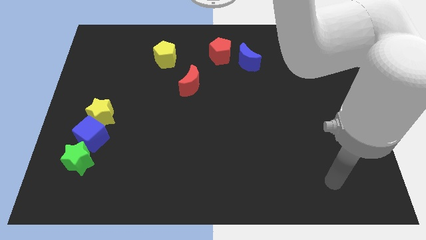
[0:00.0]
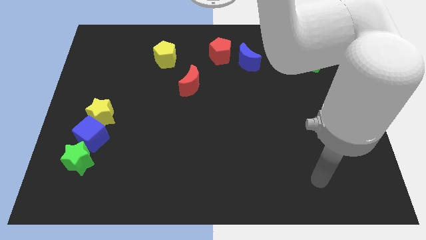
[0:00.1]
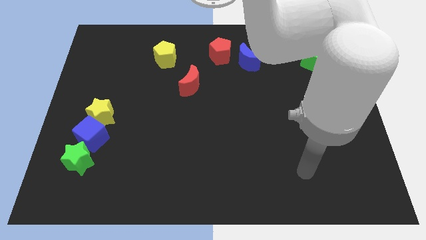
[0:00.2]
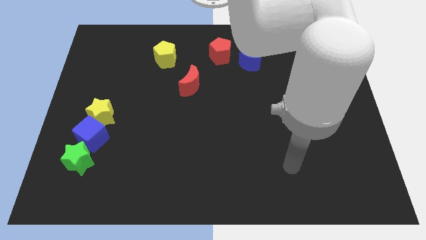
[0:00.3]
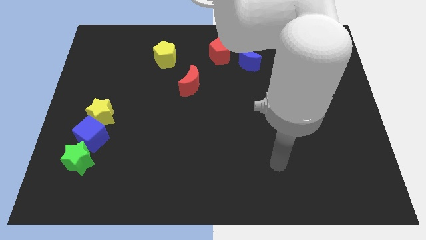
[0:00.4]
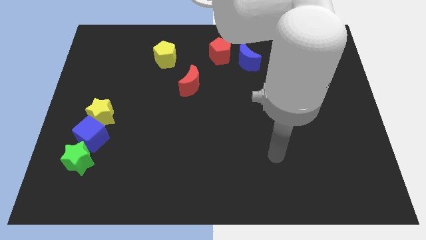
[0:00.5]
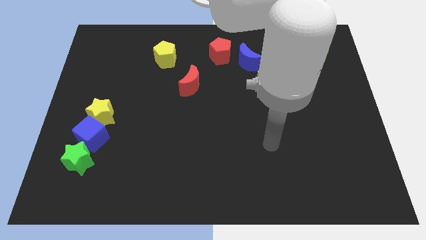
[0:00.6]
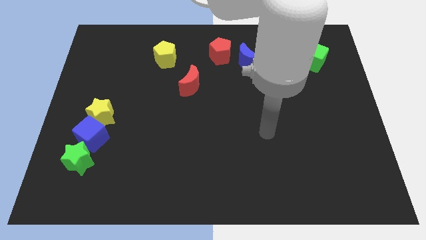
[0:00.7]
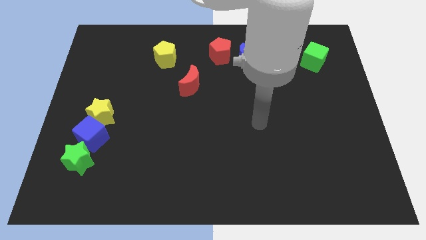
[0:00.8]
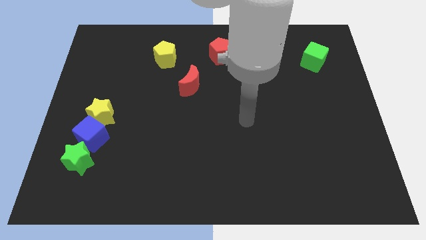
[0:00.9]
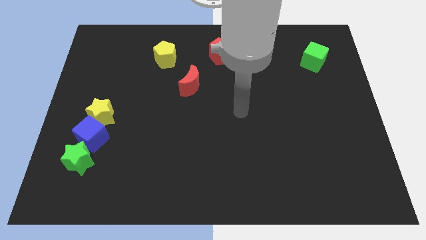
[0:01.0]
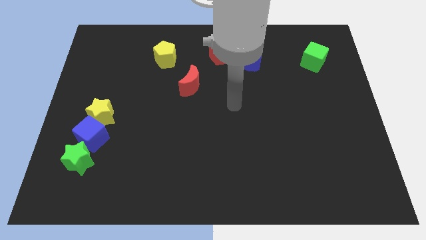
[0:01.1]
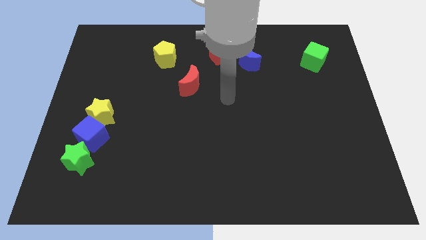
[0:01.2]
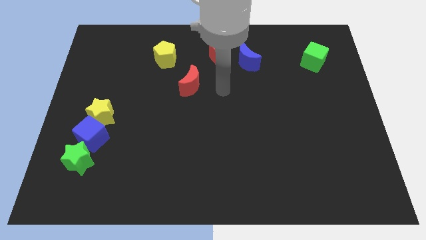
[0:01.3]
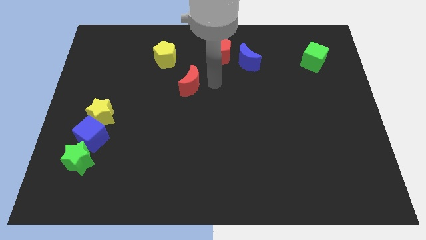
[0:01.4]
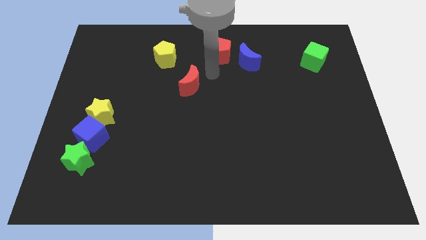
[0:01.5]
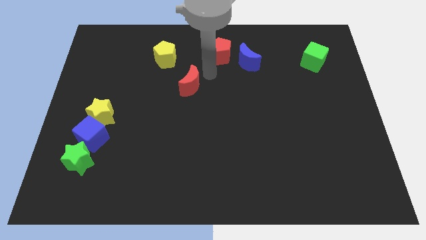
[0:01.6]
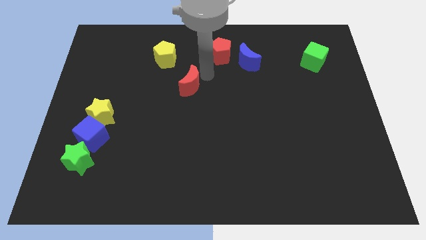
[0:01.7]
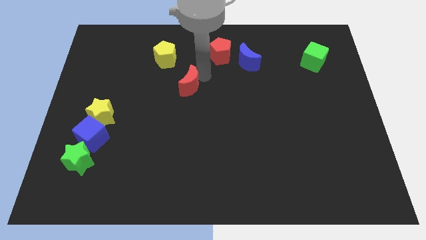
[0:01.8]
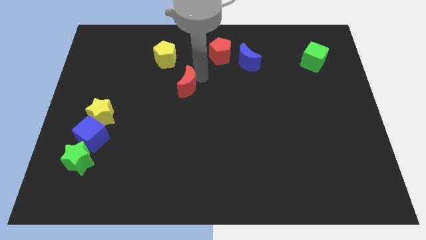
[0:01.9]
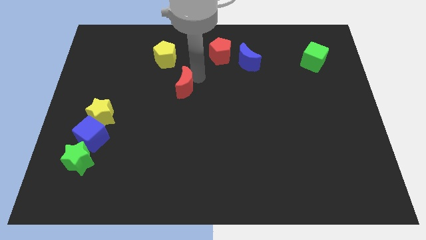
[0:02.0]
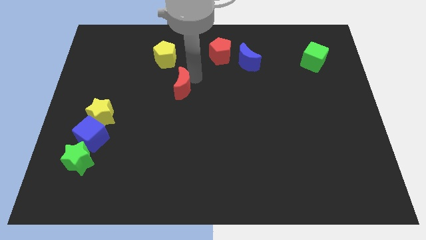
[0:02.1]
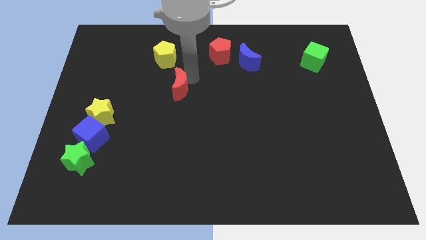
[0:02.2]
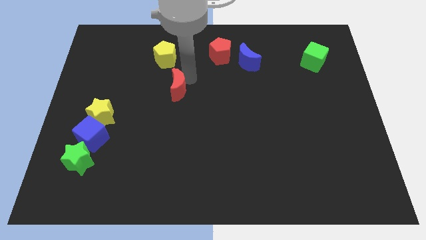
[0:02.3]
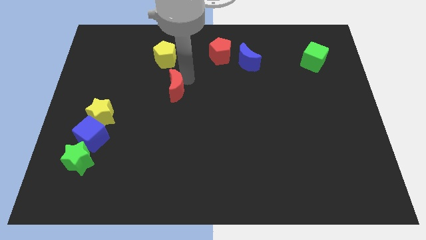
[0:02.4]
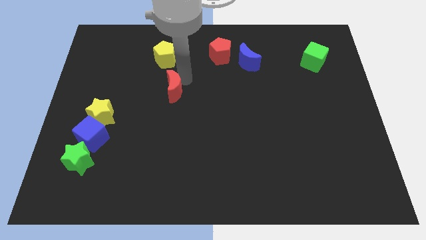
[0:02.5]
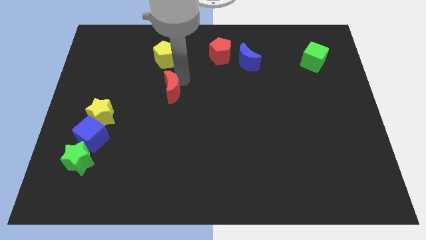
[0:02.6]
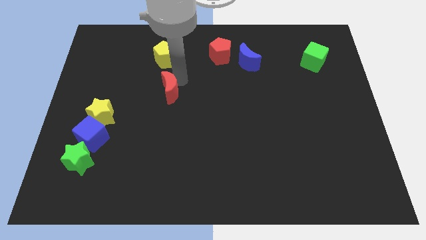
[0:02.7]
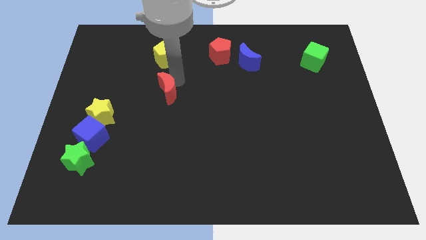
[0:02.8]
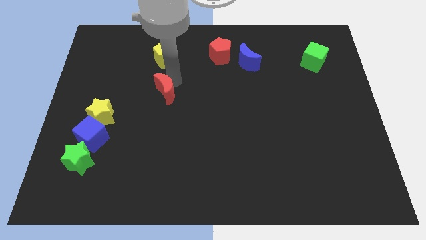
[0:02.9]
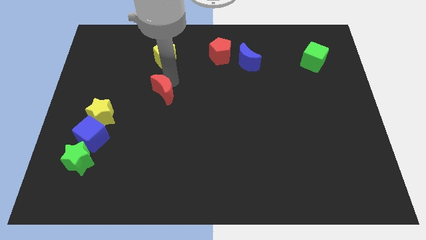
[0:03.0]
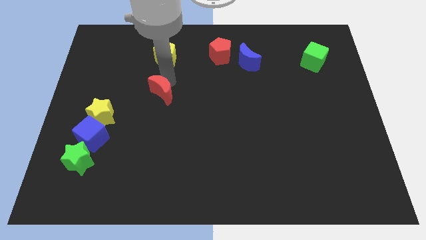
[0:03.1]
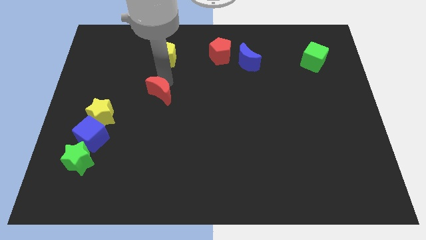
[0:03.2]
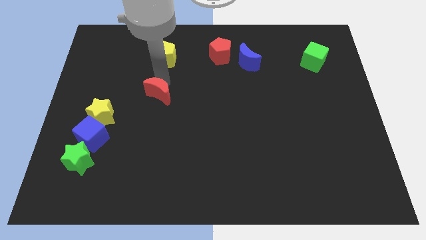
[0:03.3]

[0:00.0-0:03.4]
move the red moon slightly downwards and then to the left

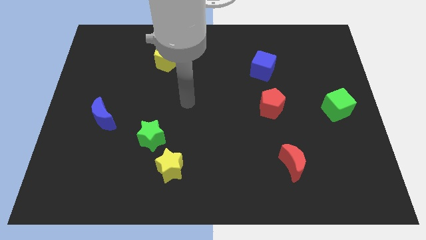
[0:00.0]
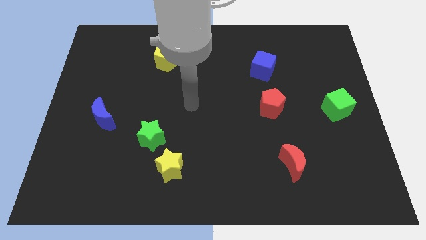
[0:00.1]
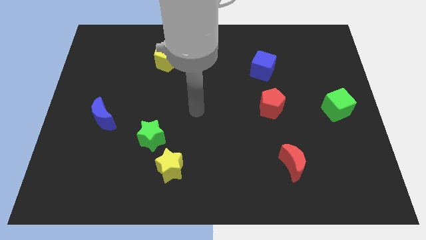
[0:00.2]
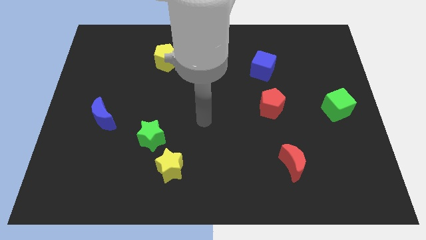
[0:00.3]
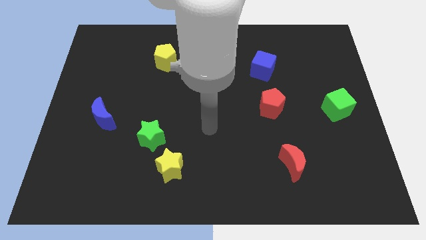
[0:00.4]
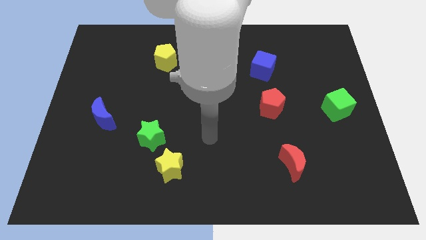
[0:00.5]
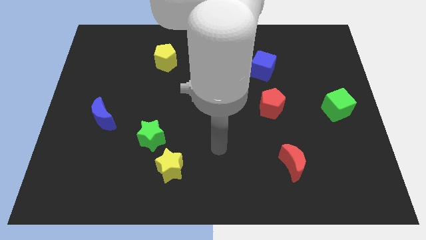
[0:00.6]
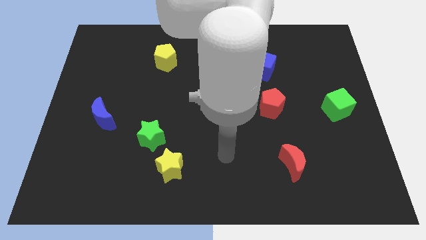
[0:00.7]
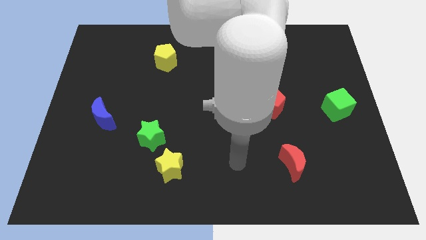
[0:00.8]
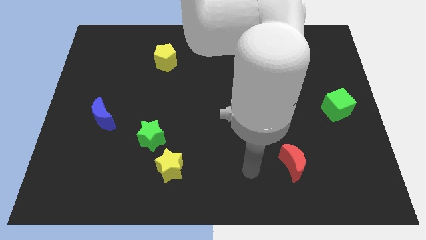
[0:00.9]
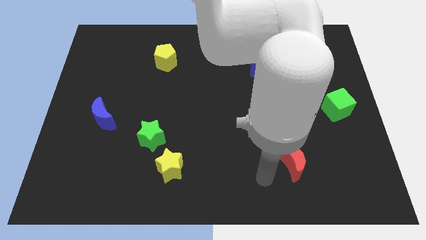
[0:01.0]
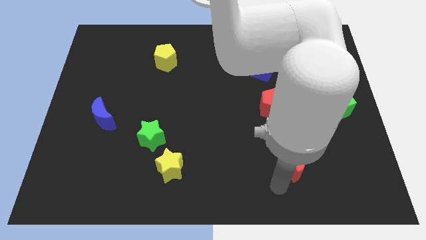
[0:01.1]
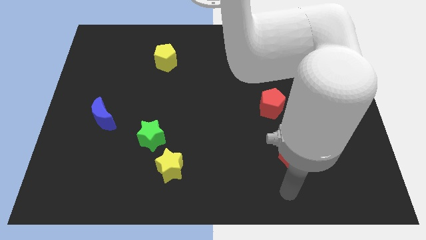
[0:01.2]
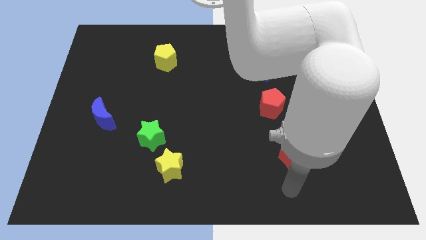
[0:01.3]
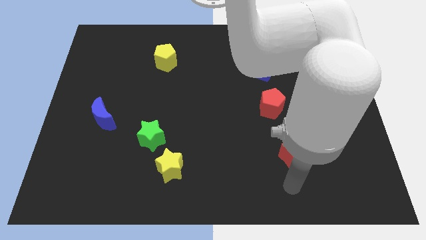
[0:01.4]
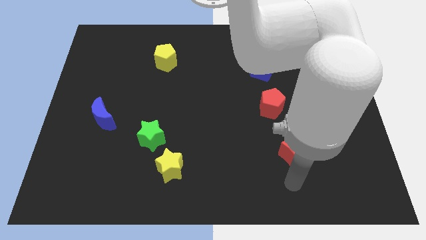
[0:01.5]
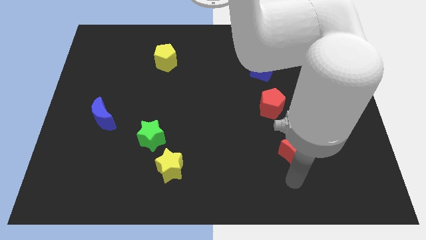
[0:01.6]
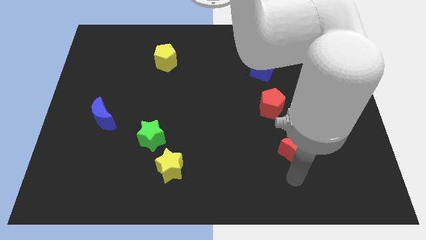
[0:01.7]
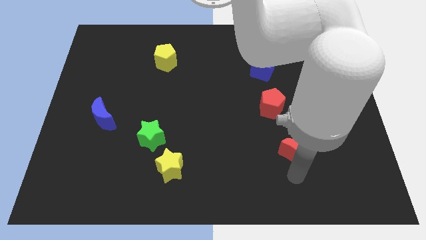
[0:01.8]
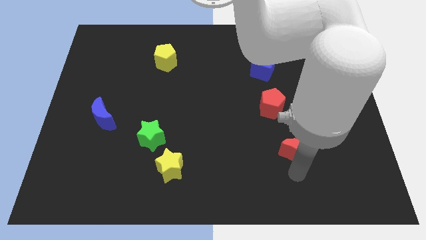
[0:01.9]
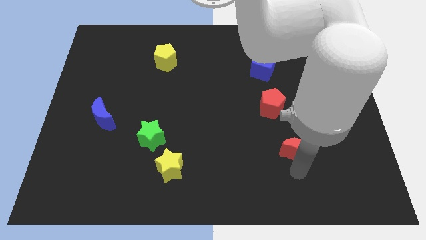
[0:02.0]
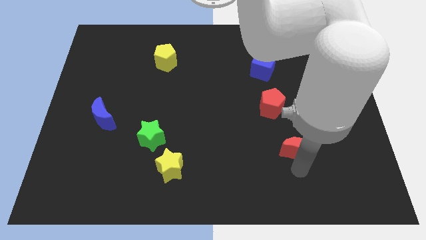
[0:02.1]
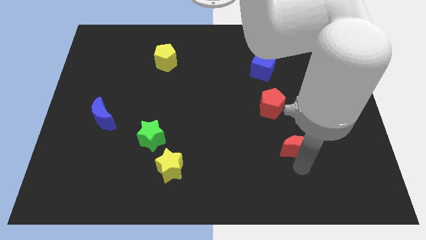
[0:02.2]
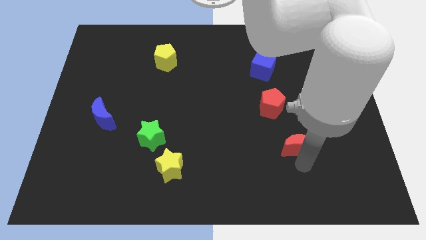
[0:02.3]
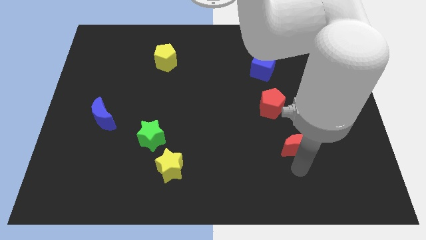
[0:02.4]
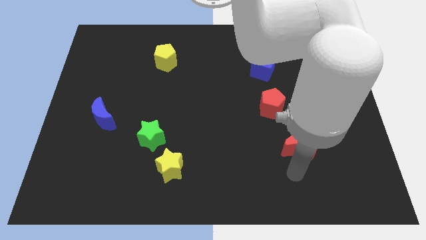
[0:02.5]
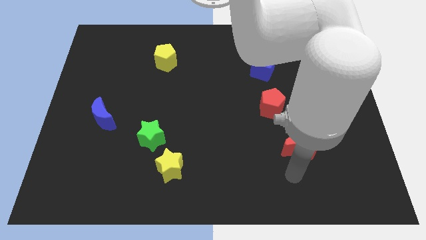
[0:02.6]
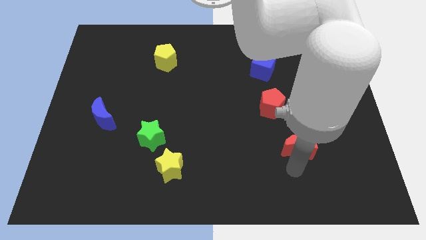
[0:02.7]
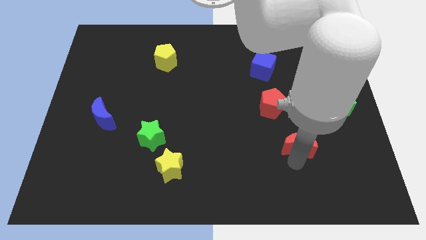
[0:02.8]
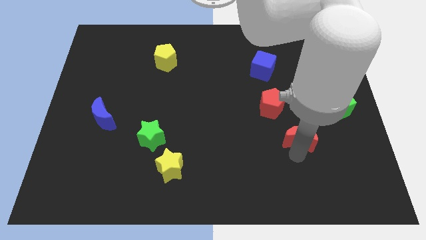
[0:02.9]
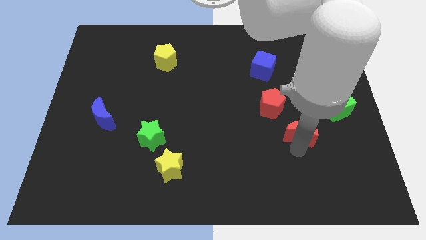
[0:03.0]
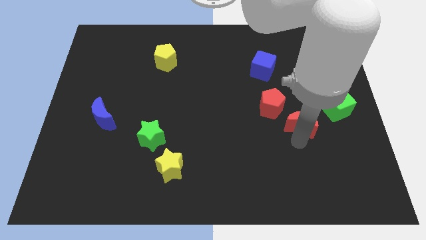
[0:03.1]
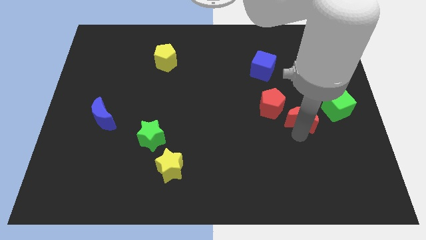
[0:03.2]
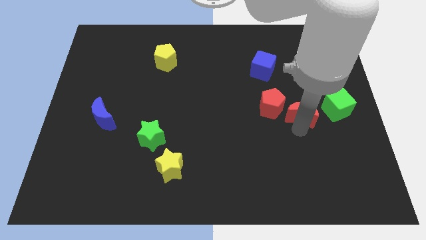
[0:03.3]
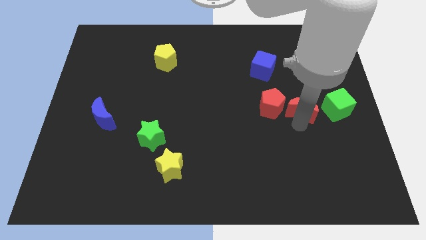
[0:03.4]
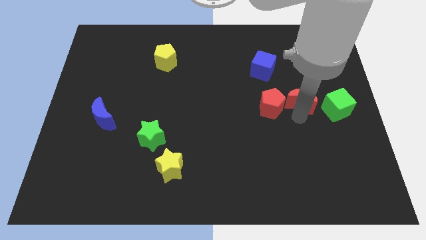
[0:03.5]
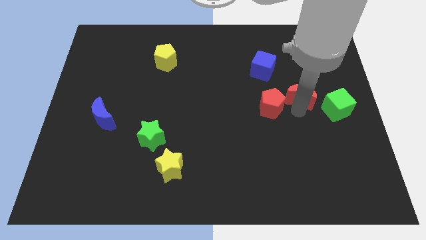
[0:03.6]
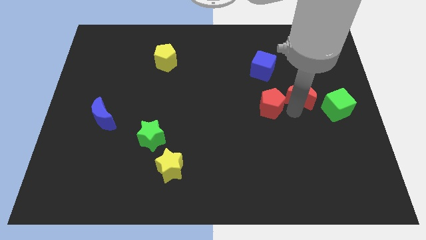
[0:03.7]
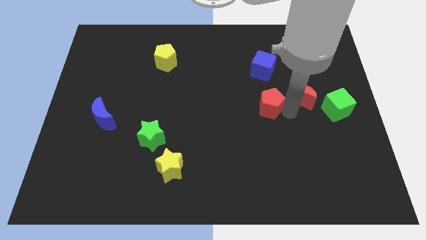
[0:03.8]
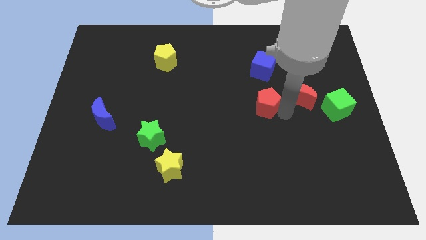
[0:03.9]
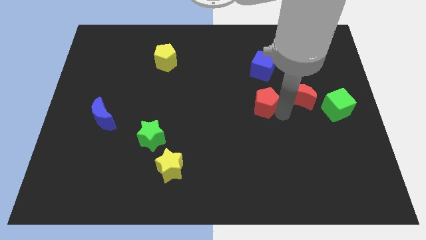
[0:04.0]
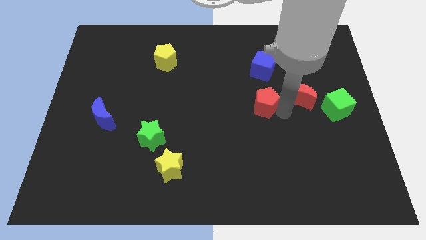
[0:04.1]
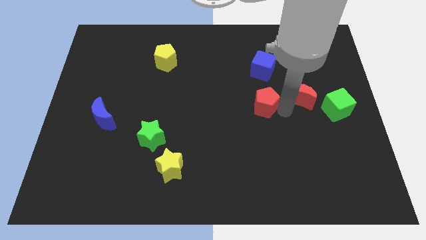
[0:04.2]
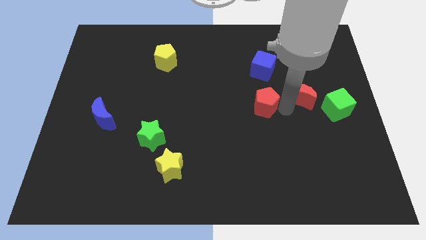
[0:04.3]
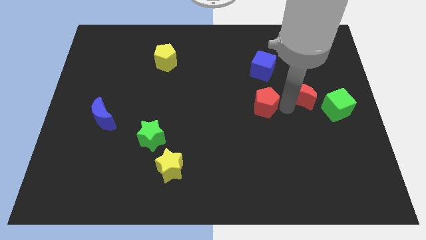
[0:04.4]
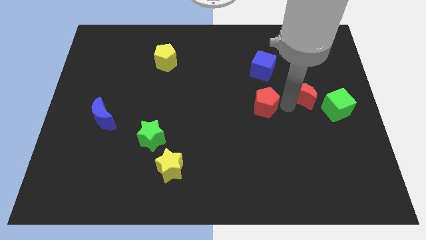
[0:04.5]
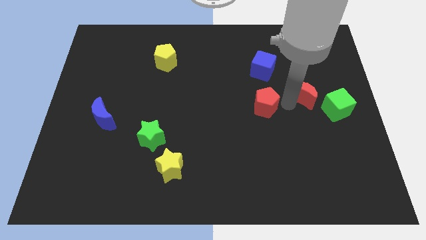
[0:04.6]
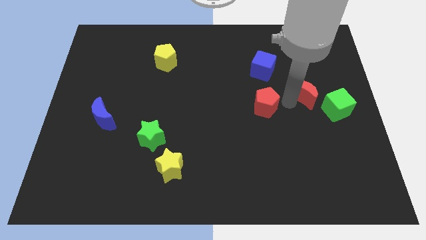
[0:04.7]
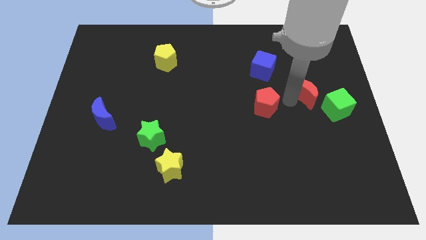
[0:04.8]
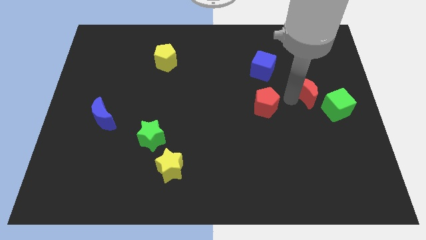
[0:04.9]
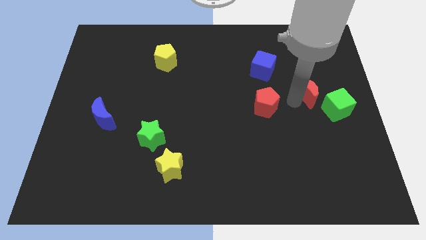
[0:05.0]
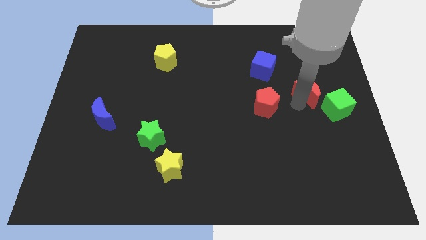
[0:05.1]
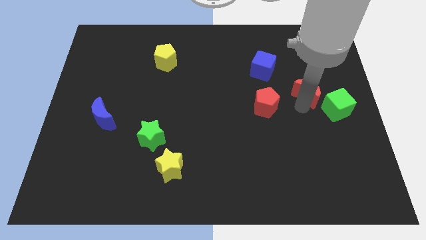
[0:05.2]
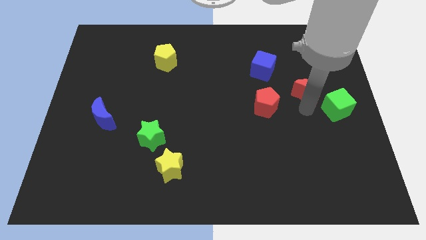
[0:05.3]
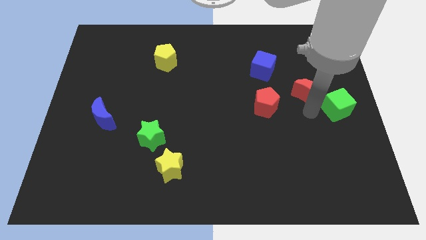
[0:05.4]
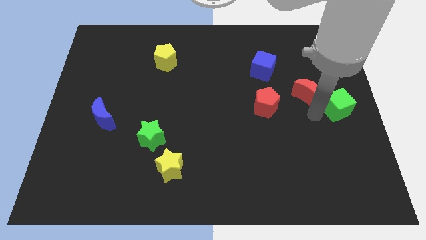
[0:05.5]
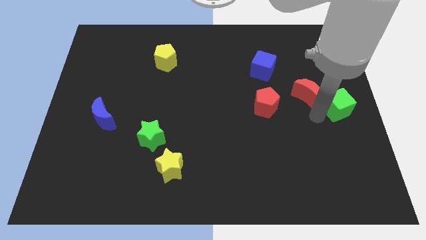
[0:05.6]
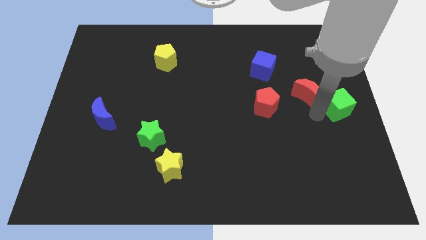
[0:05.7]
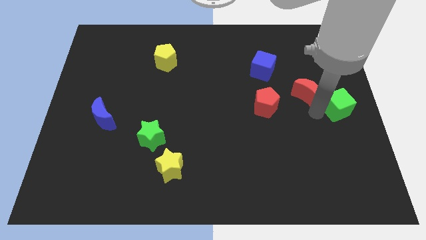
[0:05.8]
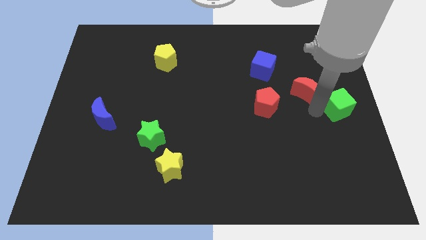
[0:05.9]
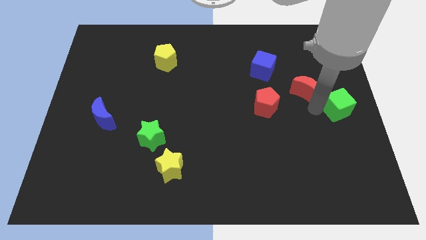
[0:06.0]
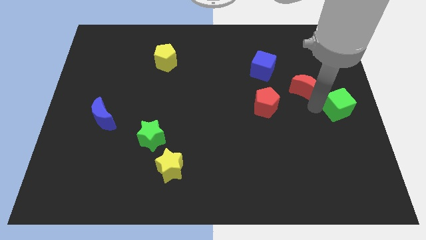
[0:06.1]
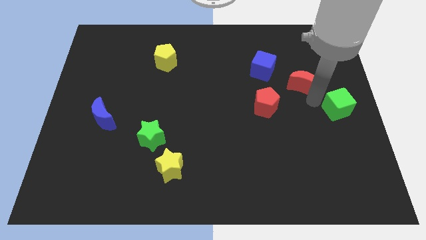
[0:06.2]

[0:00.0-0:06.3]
push the red moon upwards
